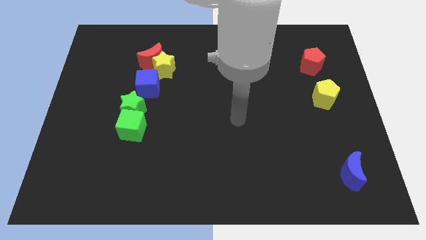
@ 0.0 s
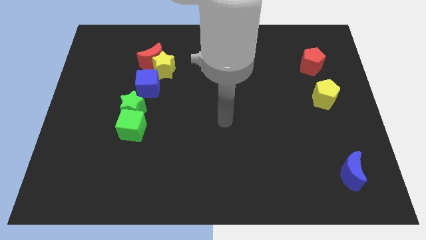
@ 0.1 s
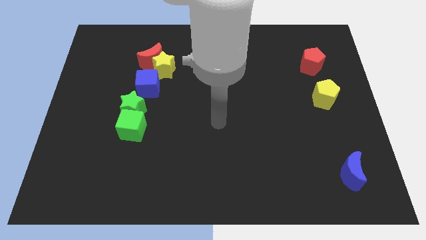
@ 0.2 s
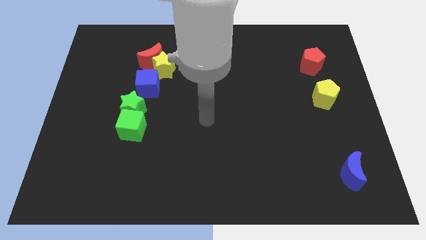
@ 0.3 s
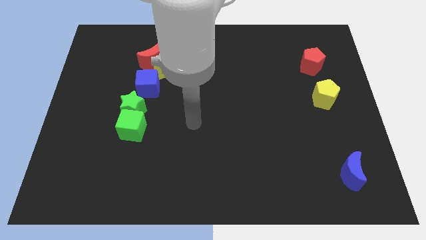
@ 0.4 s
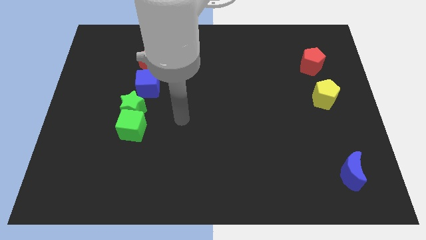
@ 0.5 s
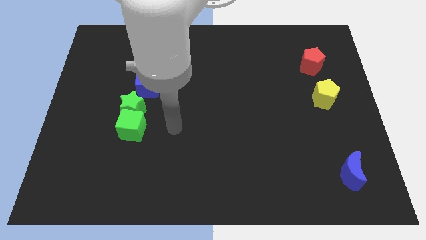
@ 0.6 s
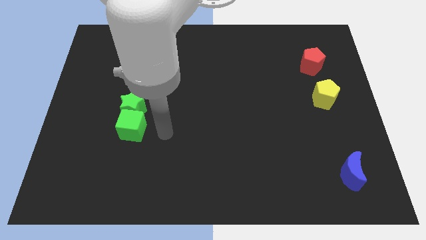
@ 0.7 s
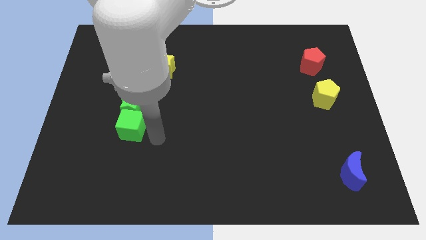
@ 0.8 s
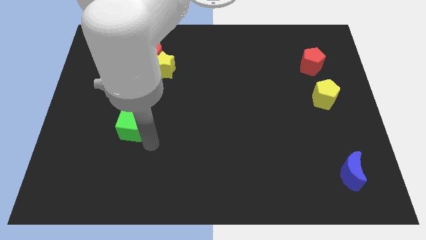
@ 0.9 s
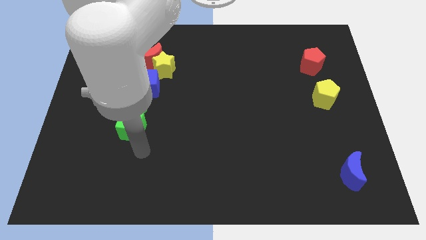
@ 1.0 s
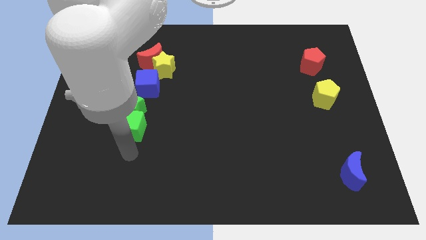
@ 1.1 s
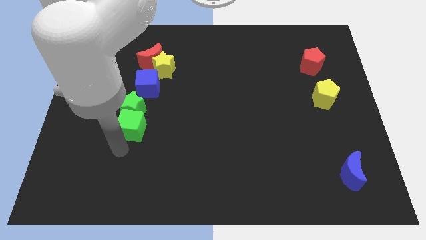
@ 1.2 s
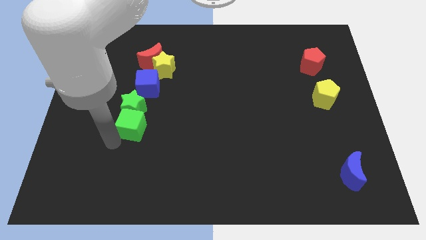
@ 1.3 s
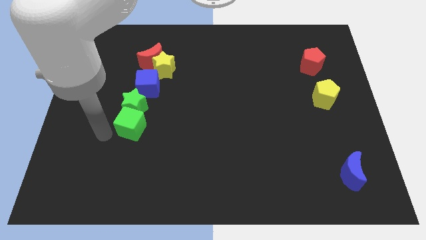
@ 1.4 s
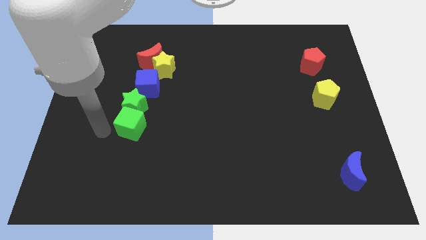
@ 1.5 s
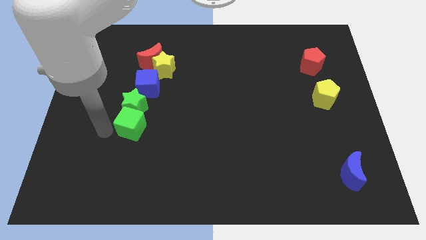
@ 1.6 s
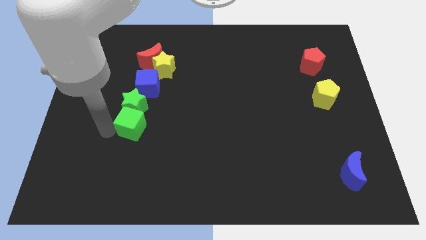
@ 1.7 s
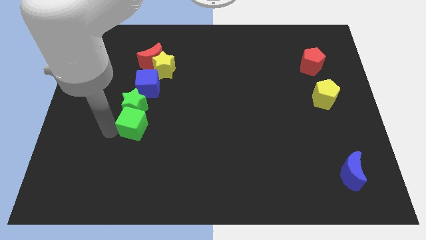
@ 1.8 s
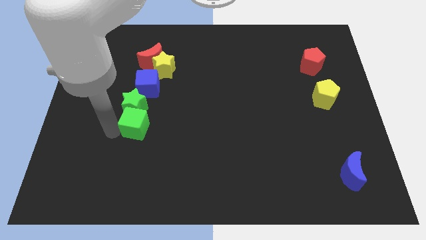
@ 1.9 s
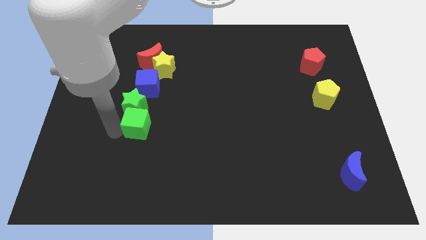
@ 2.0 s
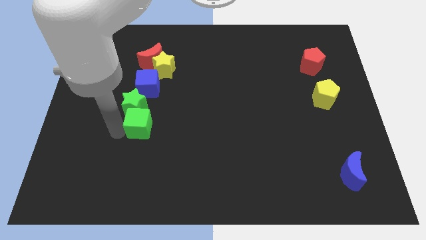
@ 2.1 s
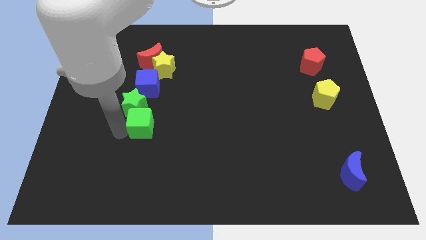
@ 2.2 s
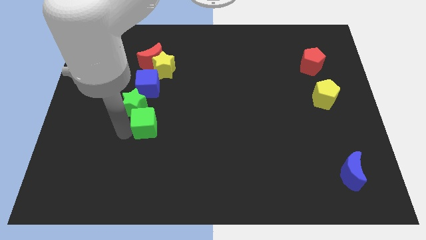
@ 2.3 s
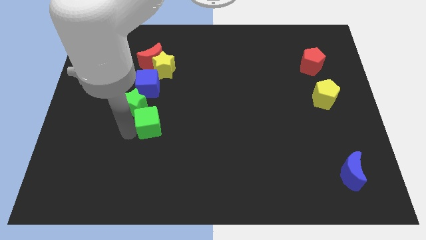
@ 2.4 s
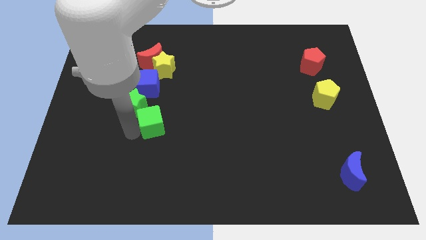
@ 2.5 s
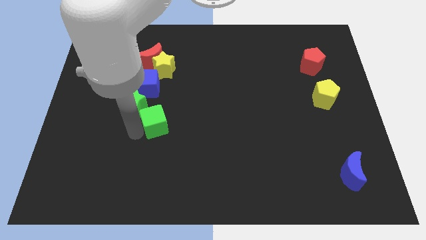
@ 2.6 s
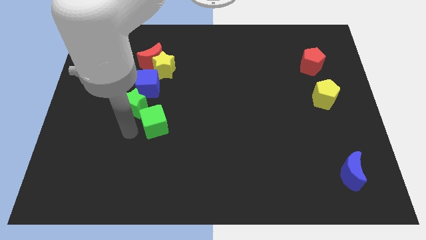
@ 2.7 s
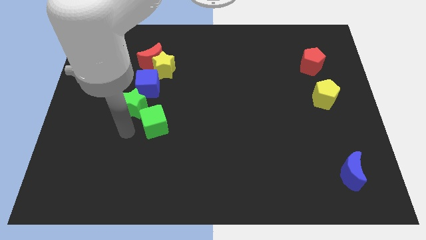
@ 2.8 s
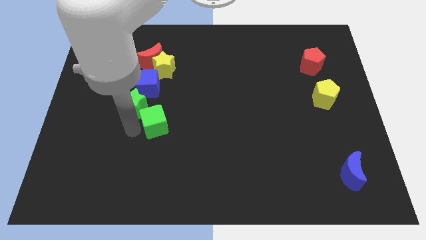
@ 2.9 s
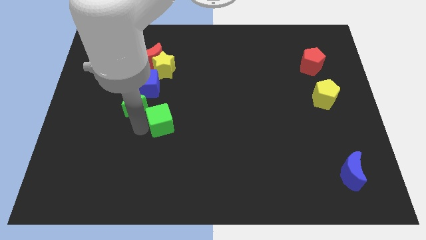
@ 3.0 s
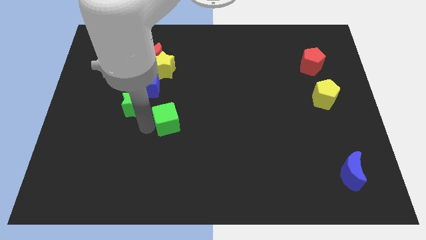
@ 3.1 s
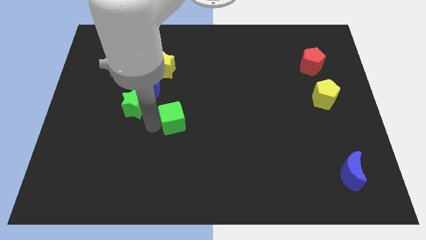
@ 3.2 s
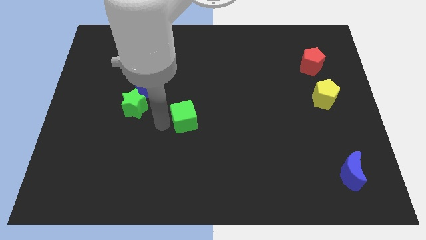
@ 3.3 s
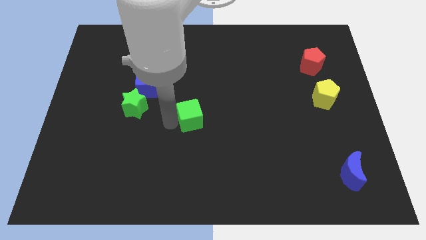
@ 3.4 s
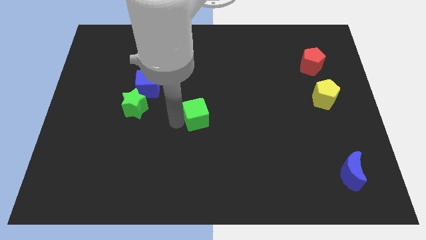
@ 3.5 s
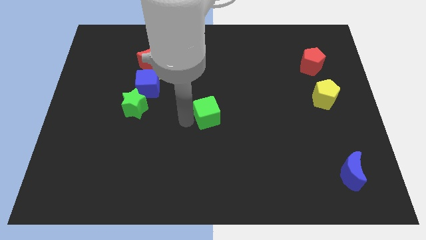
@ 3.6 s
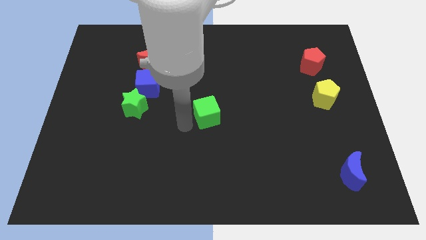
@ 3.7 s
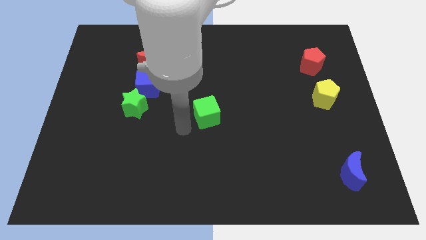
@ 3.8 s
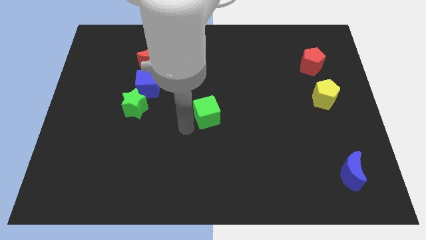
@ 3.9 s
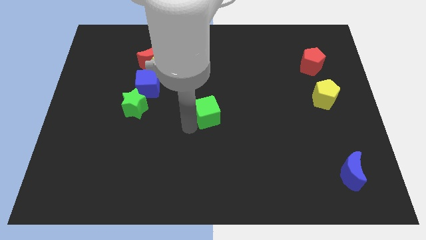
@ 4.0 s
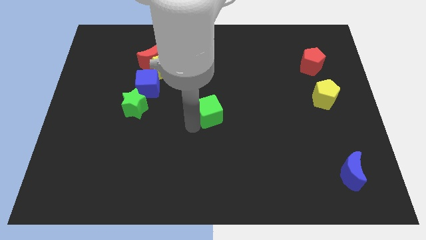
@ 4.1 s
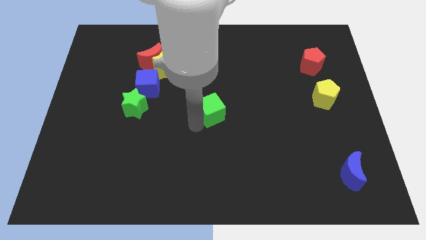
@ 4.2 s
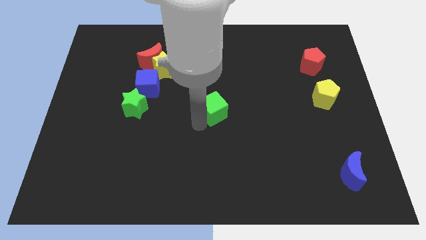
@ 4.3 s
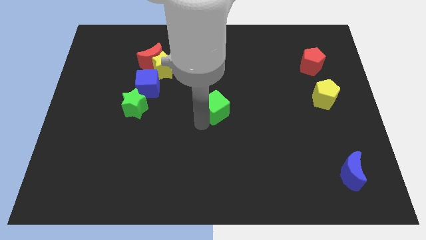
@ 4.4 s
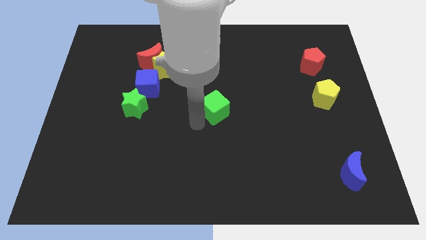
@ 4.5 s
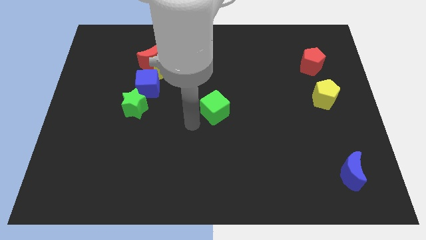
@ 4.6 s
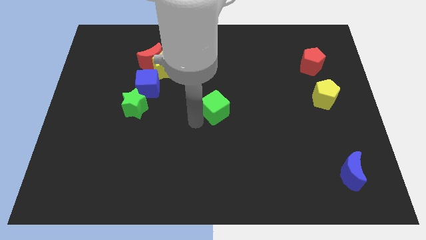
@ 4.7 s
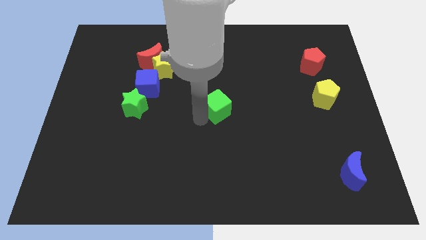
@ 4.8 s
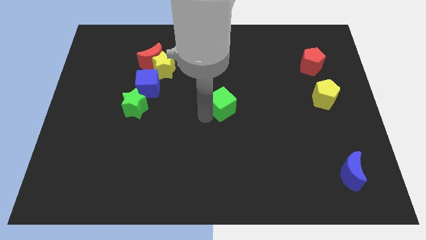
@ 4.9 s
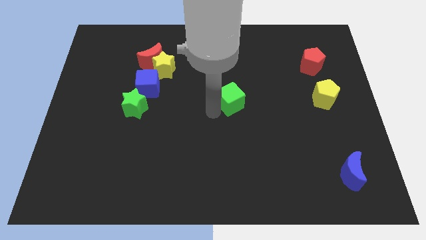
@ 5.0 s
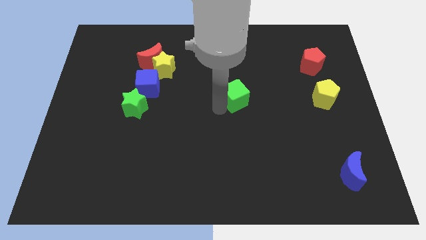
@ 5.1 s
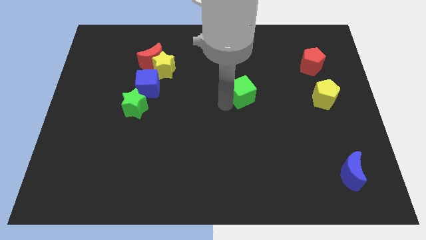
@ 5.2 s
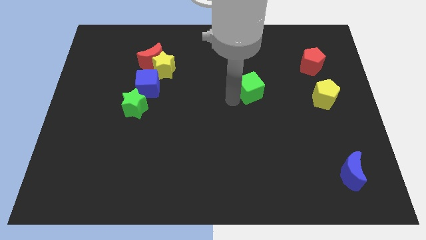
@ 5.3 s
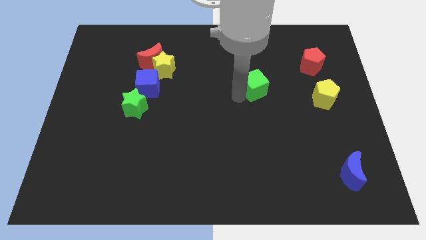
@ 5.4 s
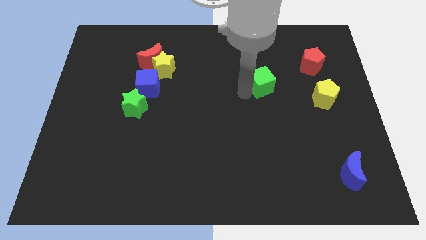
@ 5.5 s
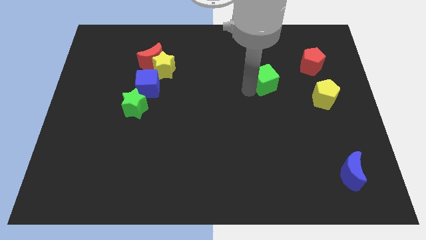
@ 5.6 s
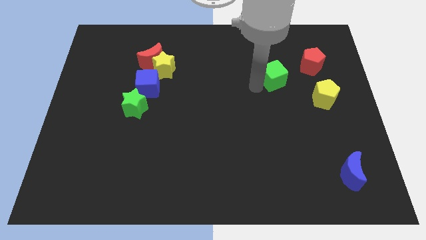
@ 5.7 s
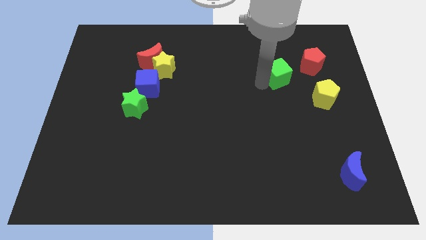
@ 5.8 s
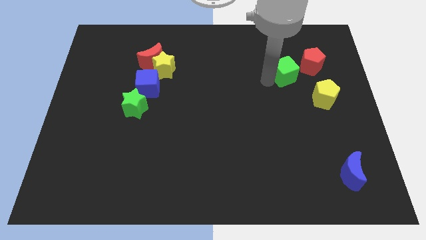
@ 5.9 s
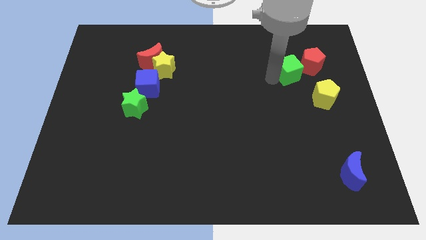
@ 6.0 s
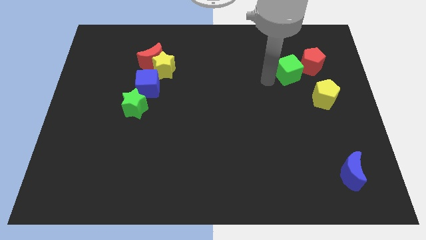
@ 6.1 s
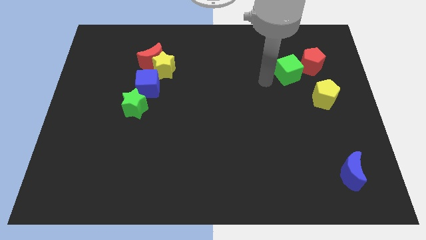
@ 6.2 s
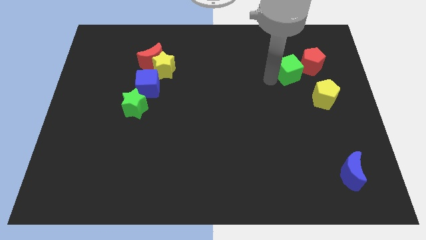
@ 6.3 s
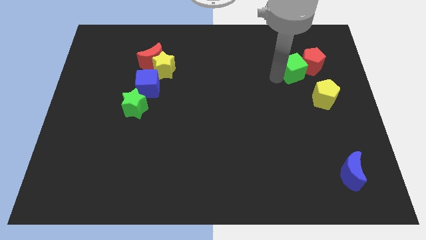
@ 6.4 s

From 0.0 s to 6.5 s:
slide the green cube close to the red pentagon
